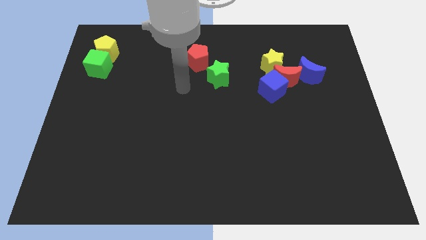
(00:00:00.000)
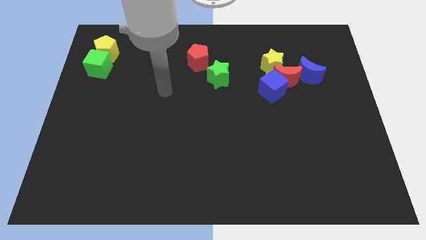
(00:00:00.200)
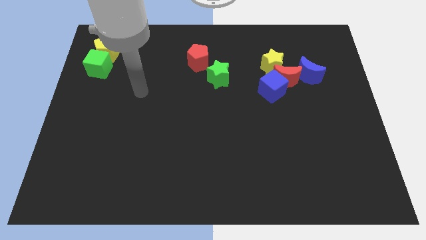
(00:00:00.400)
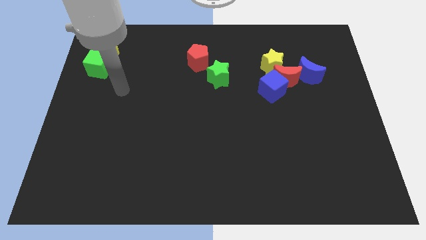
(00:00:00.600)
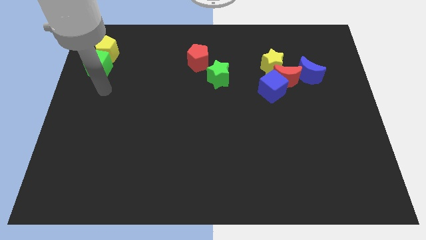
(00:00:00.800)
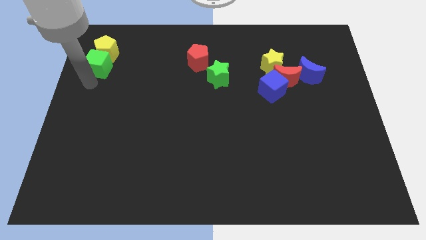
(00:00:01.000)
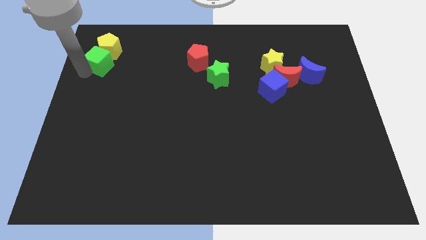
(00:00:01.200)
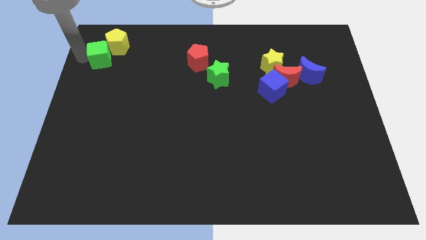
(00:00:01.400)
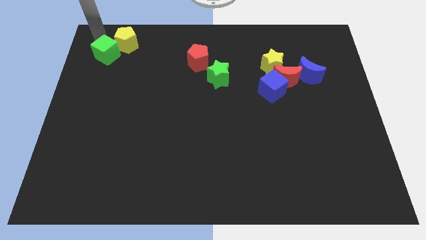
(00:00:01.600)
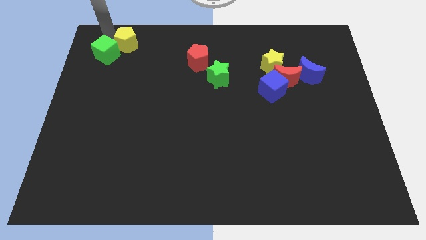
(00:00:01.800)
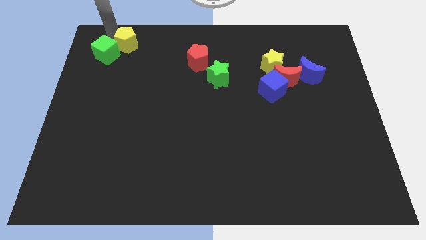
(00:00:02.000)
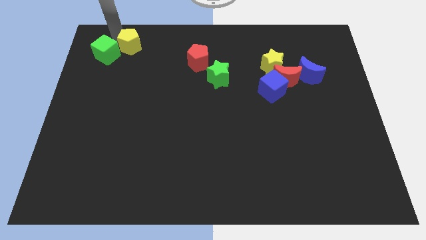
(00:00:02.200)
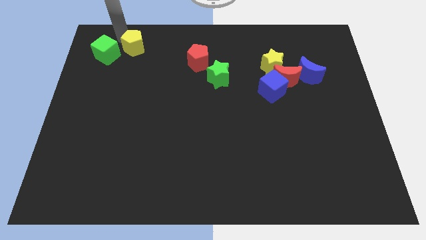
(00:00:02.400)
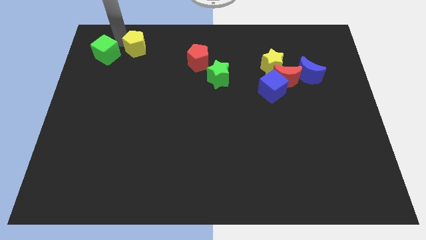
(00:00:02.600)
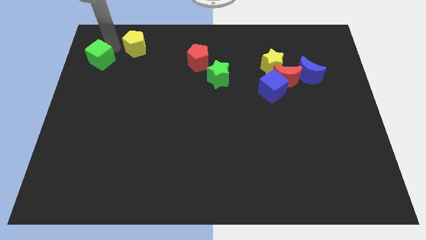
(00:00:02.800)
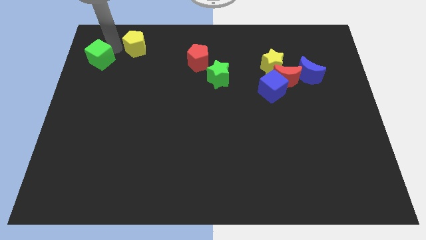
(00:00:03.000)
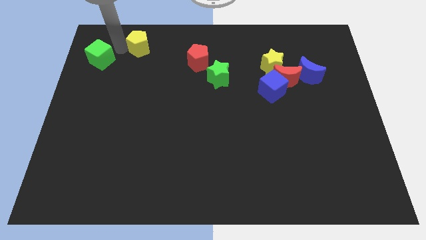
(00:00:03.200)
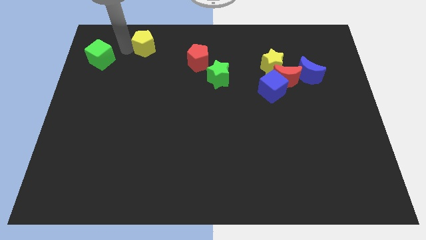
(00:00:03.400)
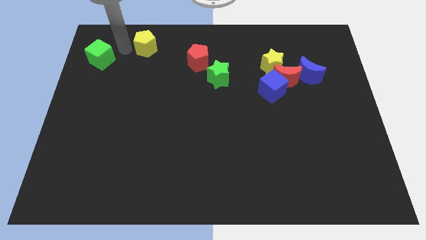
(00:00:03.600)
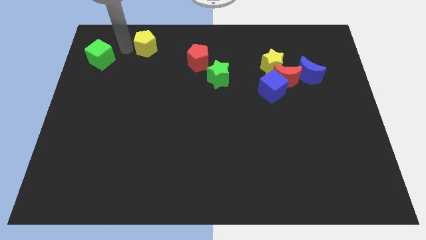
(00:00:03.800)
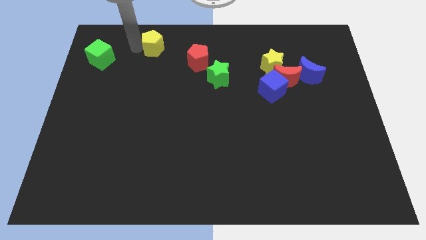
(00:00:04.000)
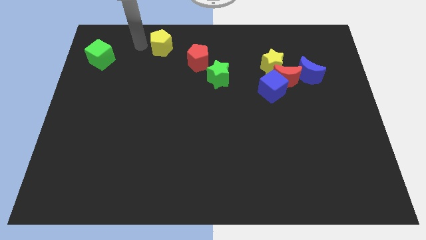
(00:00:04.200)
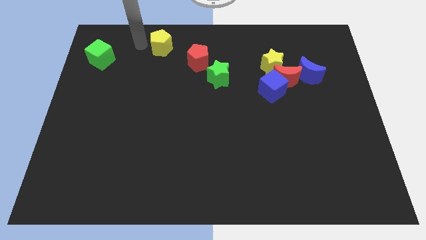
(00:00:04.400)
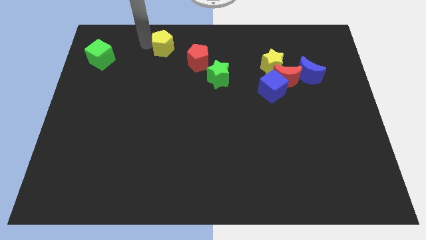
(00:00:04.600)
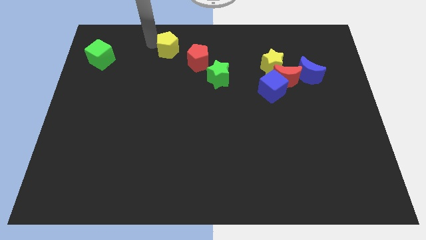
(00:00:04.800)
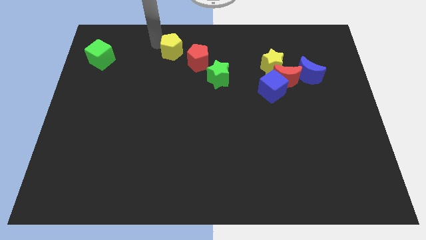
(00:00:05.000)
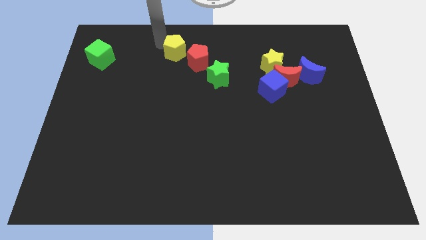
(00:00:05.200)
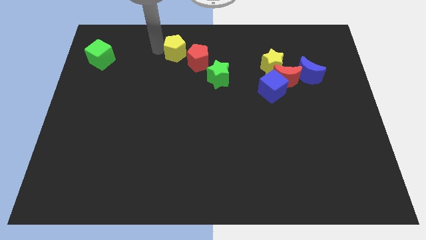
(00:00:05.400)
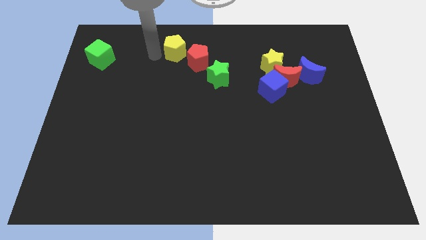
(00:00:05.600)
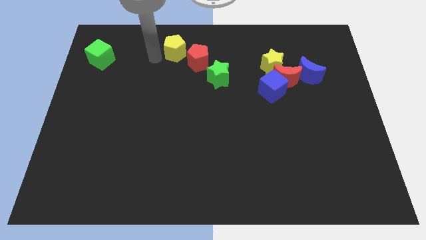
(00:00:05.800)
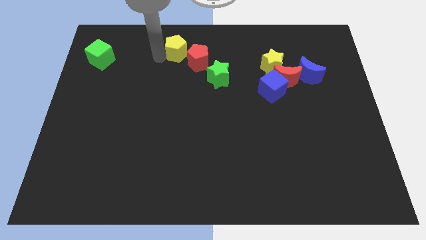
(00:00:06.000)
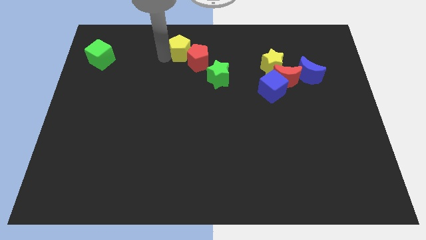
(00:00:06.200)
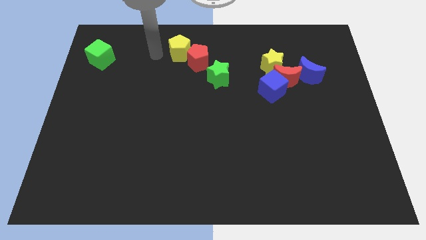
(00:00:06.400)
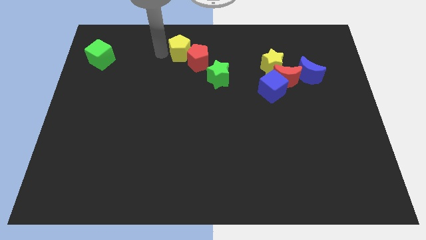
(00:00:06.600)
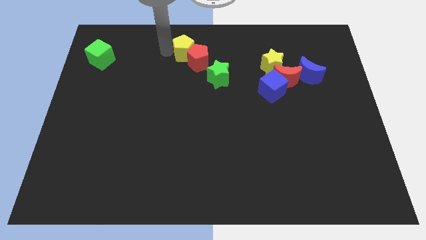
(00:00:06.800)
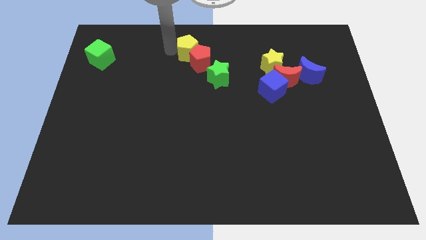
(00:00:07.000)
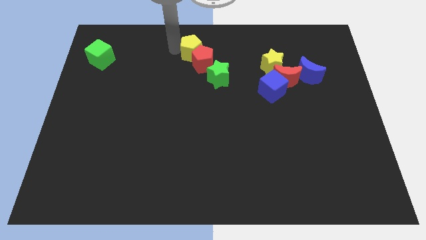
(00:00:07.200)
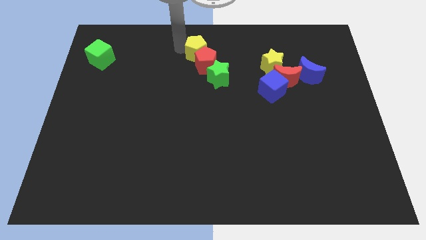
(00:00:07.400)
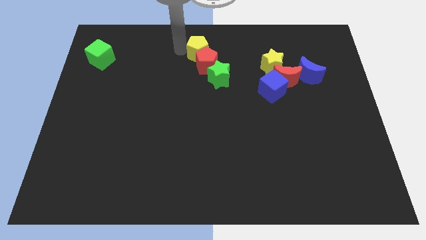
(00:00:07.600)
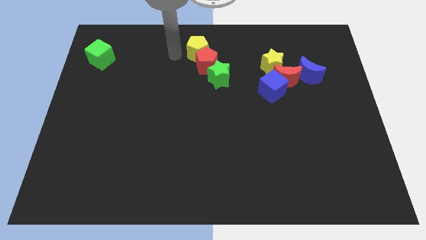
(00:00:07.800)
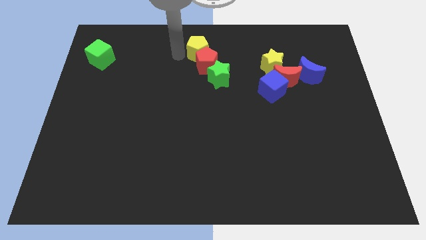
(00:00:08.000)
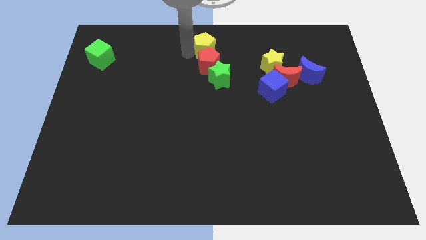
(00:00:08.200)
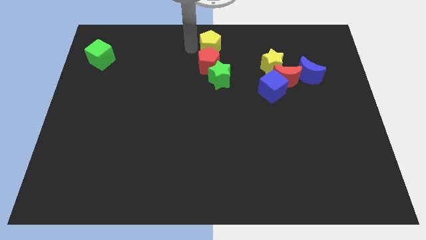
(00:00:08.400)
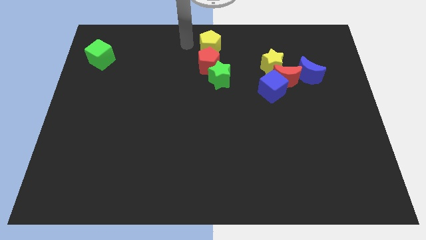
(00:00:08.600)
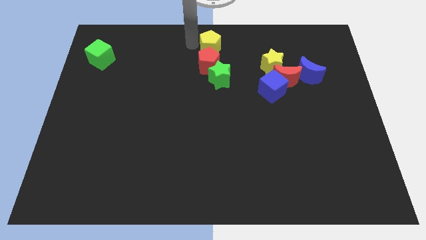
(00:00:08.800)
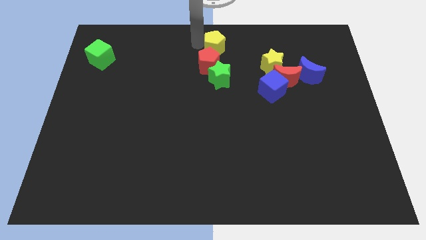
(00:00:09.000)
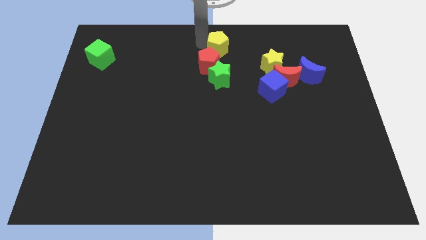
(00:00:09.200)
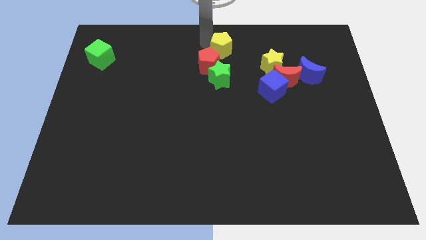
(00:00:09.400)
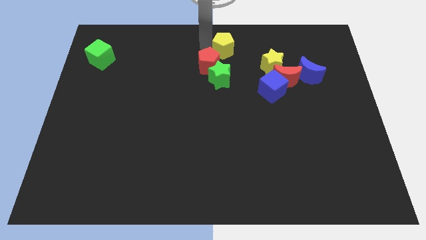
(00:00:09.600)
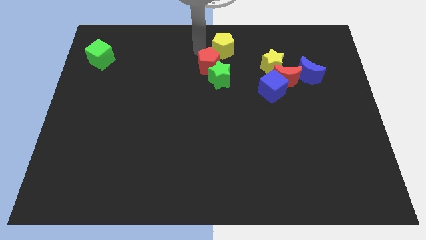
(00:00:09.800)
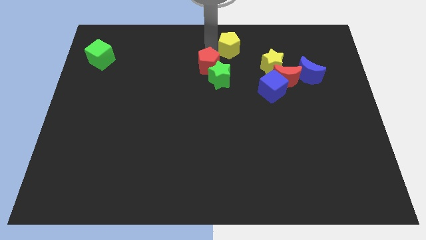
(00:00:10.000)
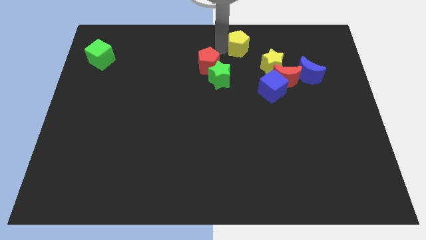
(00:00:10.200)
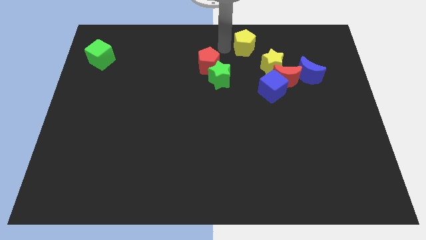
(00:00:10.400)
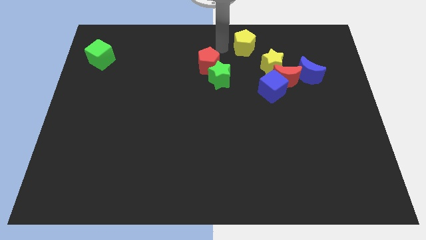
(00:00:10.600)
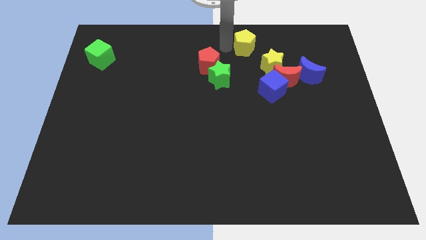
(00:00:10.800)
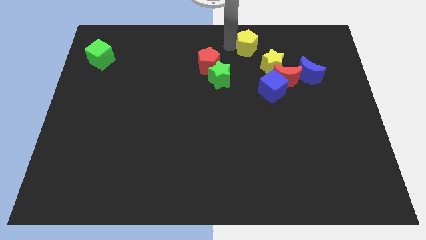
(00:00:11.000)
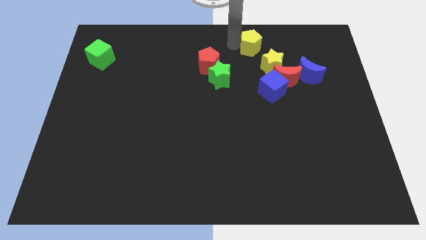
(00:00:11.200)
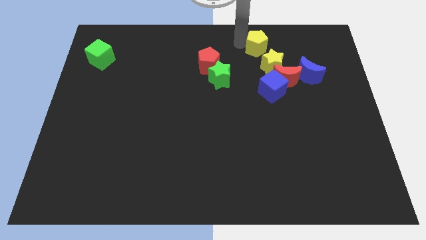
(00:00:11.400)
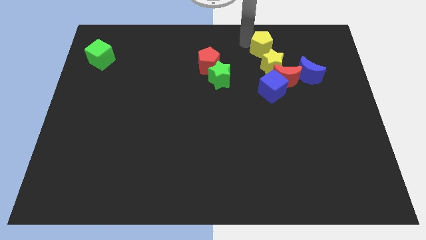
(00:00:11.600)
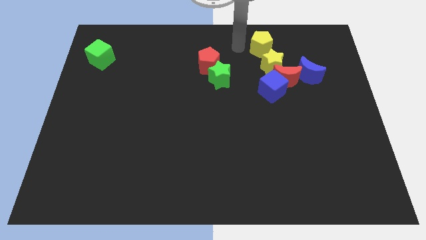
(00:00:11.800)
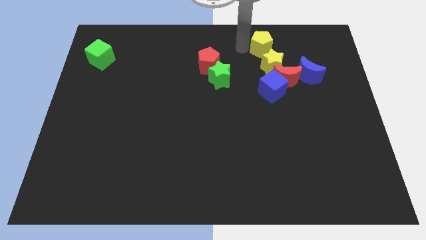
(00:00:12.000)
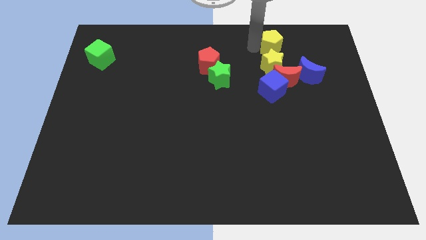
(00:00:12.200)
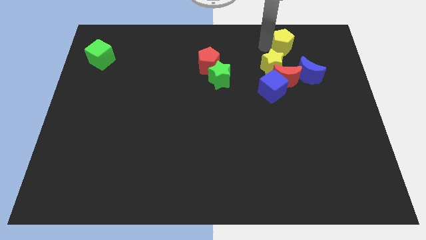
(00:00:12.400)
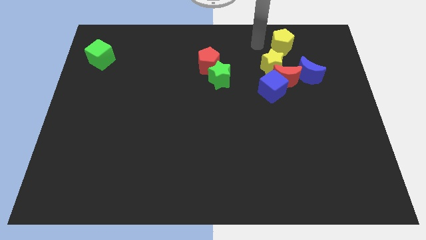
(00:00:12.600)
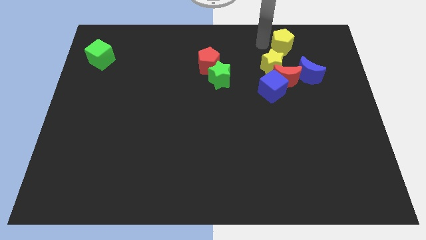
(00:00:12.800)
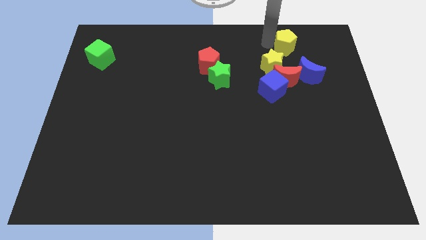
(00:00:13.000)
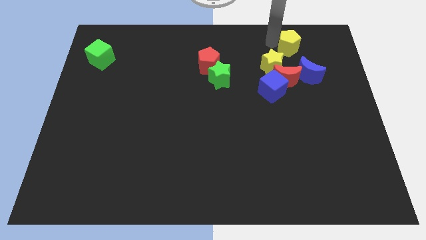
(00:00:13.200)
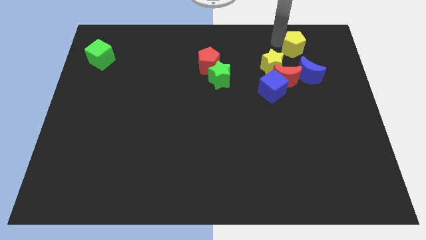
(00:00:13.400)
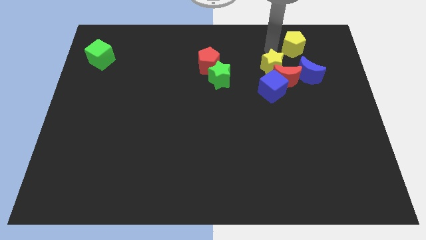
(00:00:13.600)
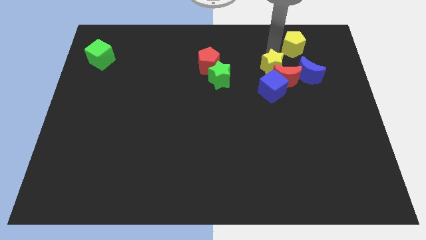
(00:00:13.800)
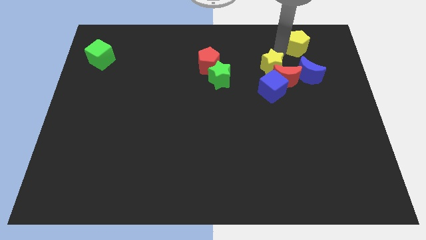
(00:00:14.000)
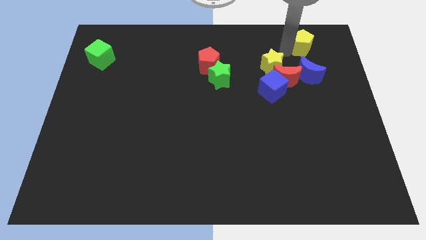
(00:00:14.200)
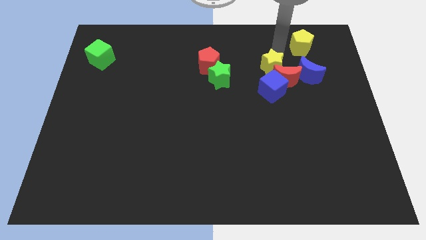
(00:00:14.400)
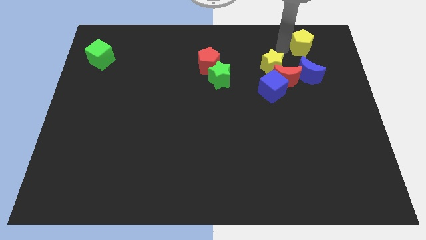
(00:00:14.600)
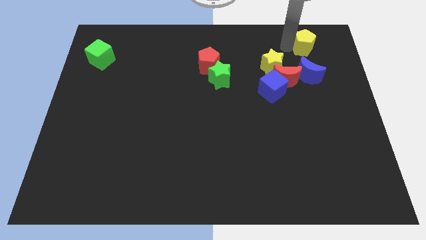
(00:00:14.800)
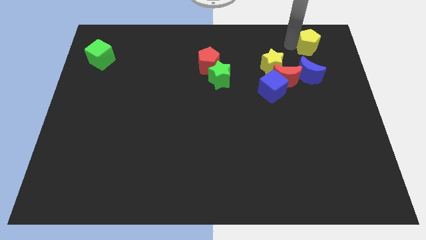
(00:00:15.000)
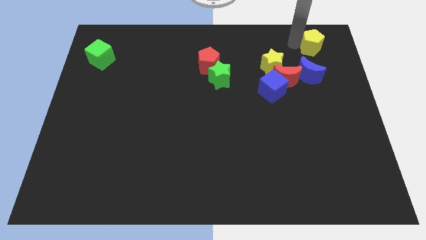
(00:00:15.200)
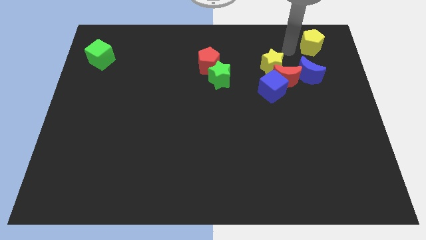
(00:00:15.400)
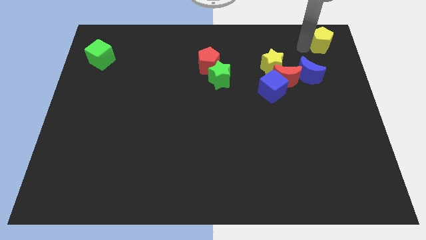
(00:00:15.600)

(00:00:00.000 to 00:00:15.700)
put the yellow pentagon to the top right corner
